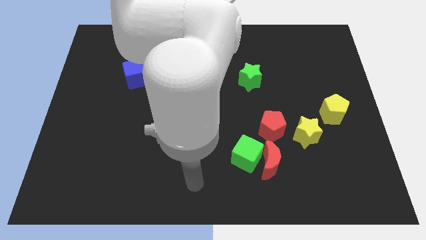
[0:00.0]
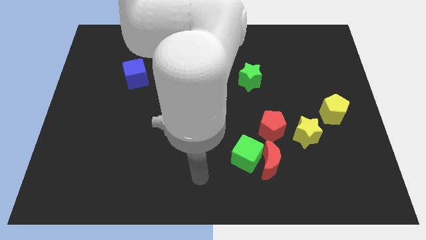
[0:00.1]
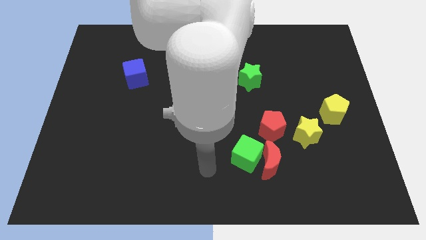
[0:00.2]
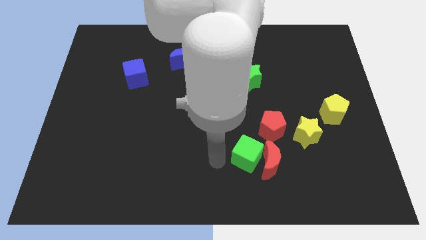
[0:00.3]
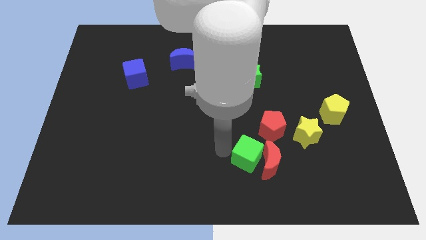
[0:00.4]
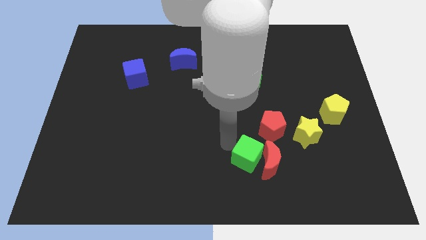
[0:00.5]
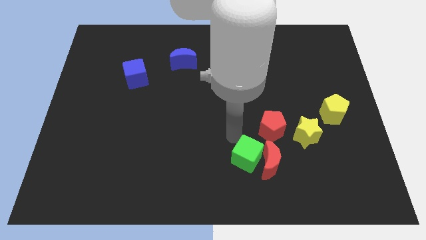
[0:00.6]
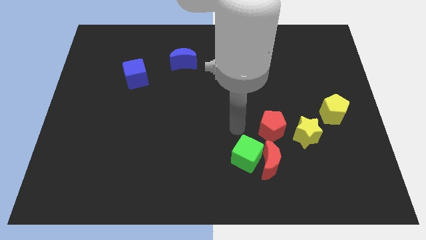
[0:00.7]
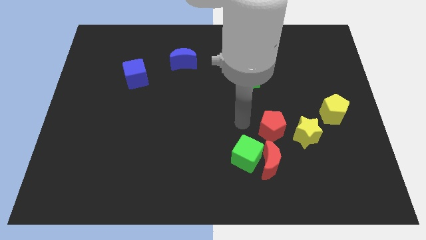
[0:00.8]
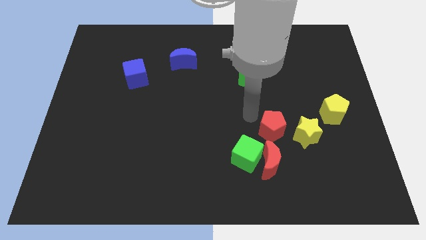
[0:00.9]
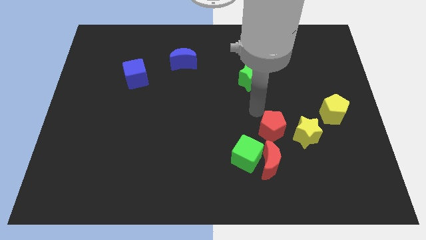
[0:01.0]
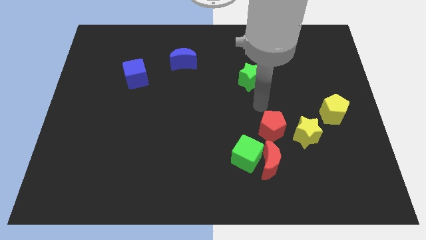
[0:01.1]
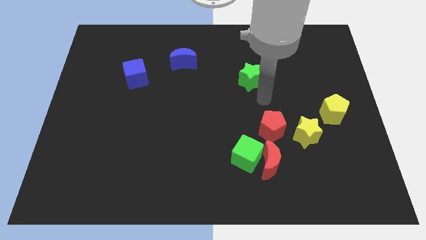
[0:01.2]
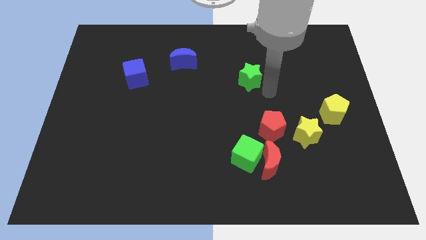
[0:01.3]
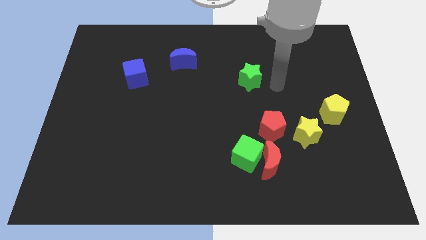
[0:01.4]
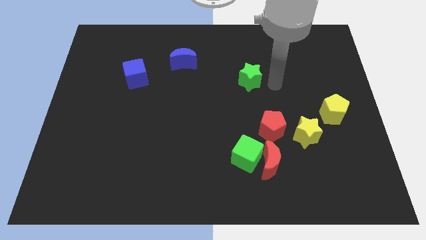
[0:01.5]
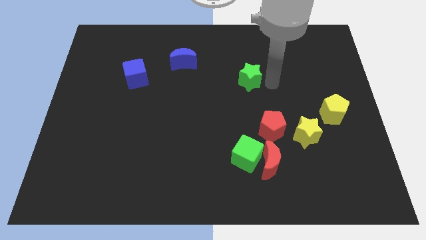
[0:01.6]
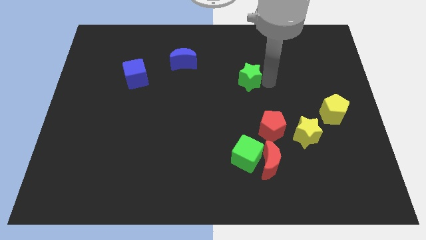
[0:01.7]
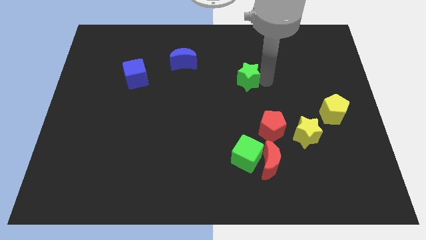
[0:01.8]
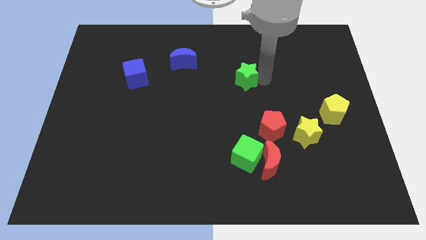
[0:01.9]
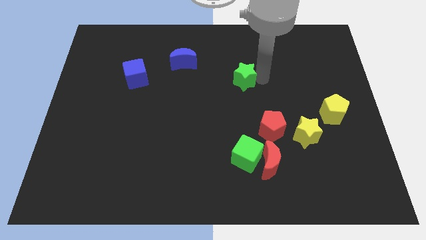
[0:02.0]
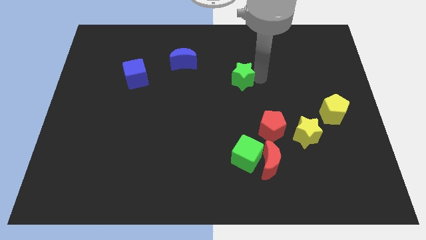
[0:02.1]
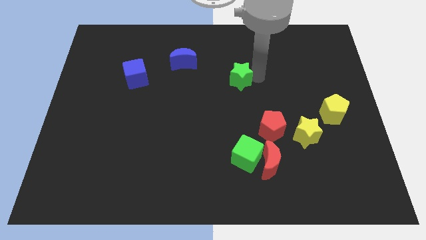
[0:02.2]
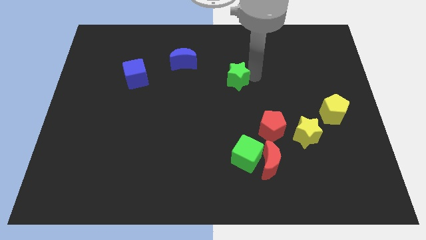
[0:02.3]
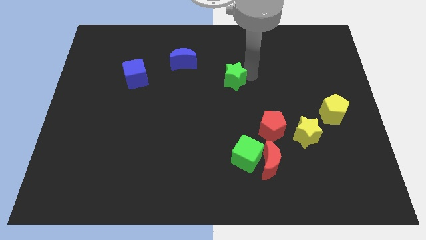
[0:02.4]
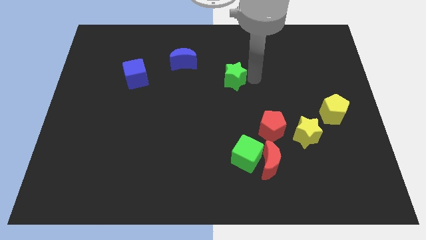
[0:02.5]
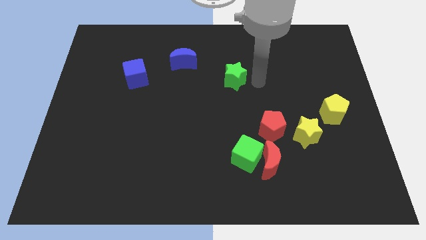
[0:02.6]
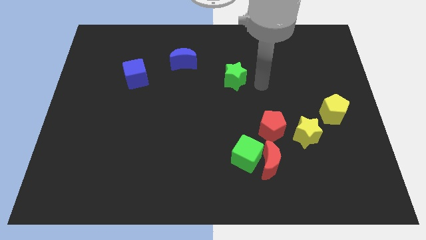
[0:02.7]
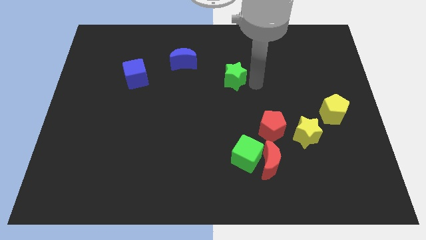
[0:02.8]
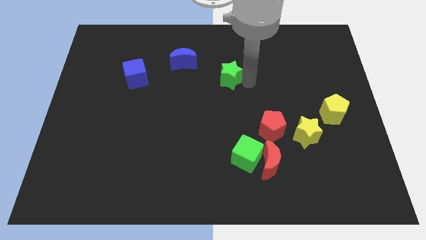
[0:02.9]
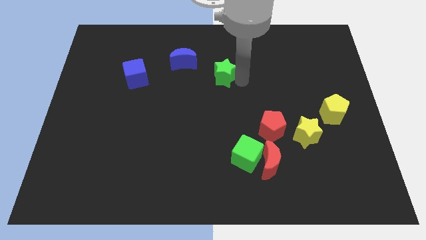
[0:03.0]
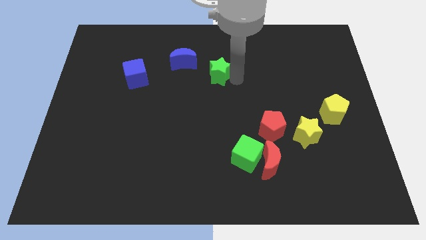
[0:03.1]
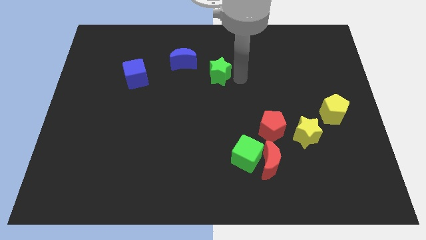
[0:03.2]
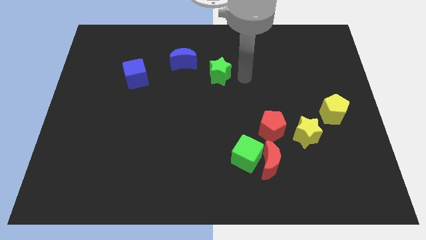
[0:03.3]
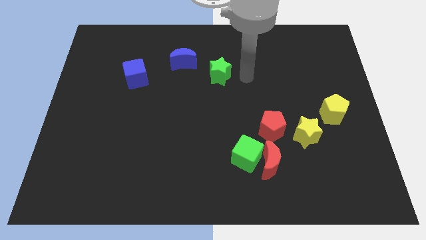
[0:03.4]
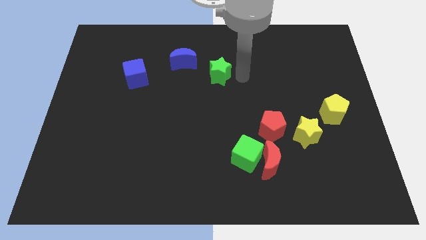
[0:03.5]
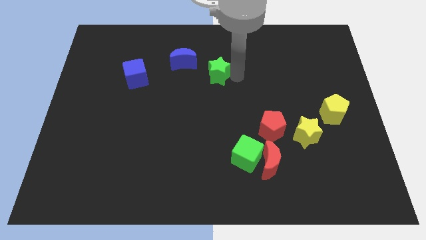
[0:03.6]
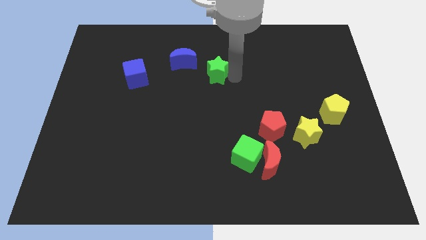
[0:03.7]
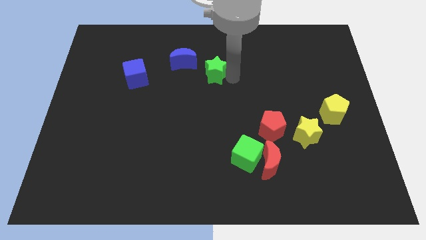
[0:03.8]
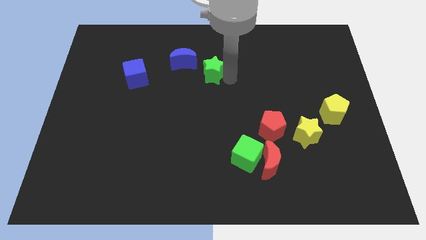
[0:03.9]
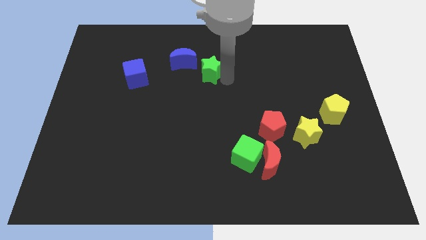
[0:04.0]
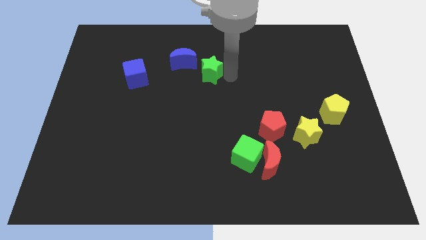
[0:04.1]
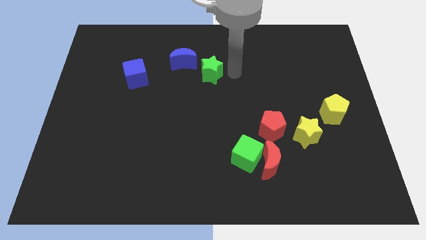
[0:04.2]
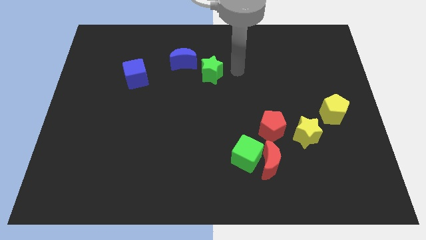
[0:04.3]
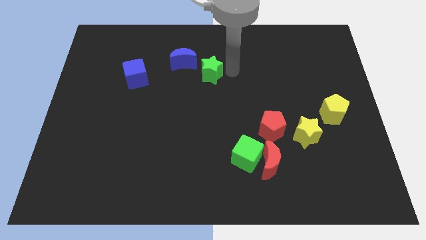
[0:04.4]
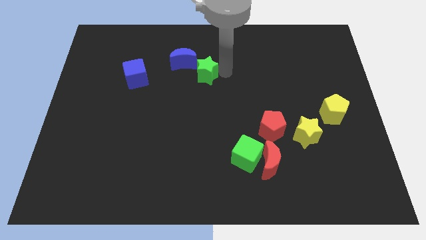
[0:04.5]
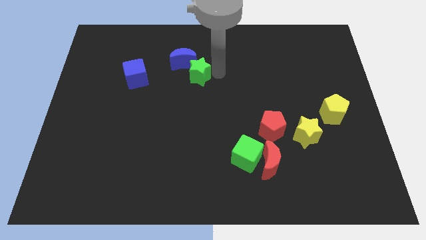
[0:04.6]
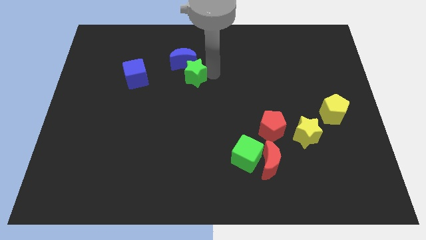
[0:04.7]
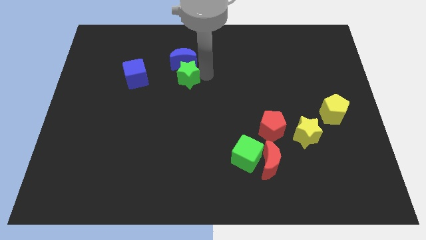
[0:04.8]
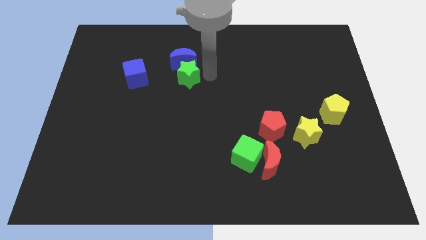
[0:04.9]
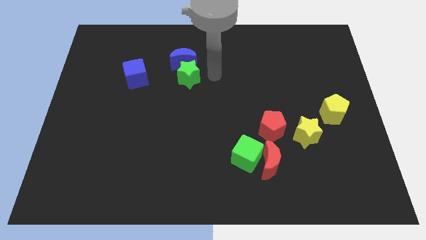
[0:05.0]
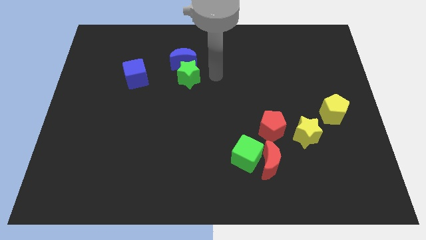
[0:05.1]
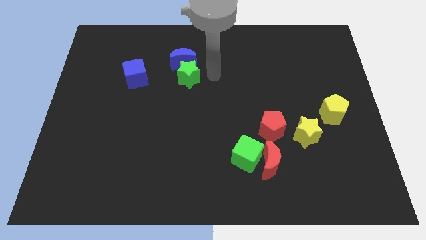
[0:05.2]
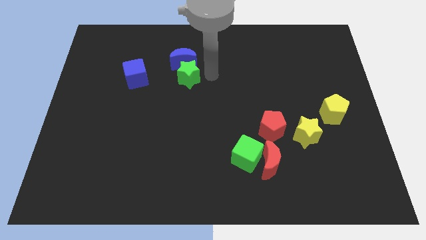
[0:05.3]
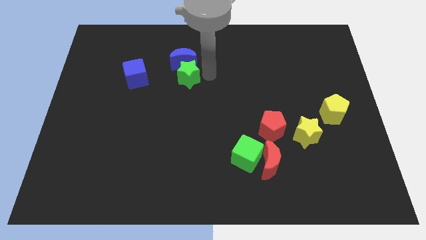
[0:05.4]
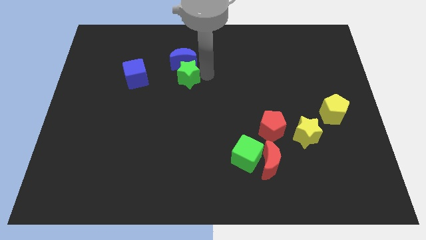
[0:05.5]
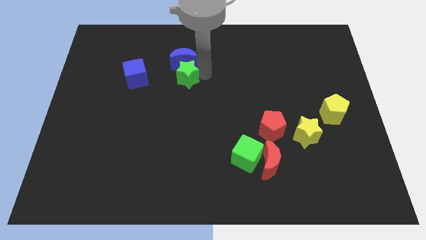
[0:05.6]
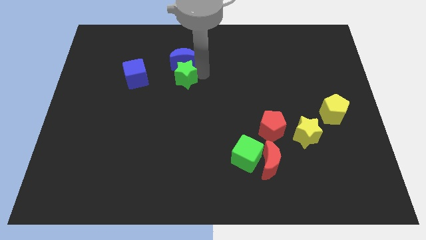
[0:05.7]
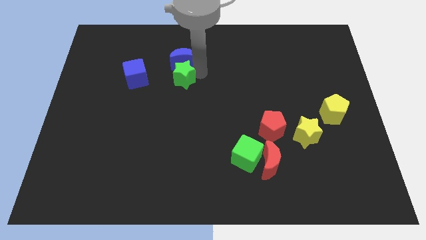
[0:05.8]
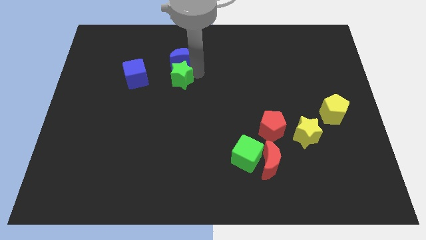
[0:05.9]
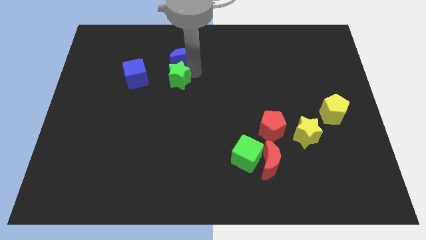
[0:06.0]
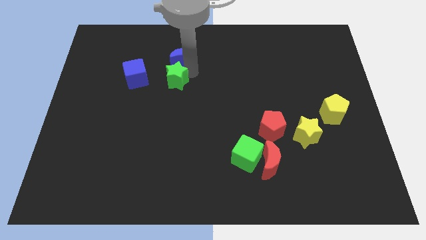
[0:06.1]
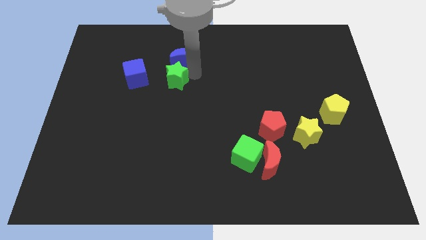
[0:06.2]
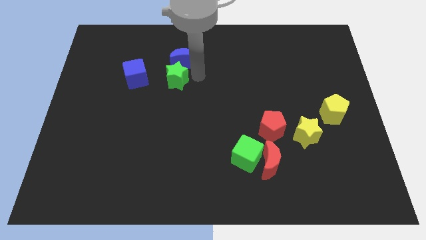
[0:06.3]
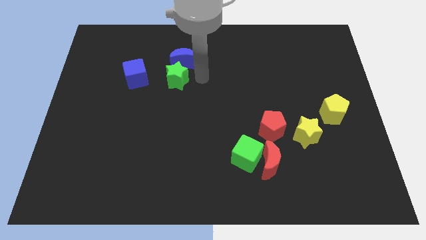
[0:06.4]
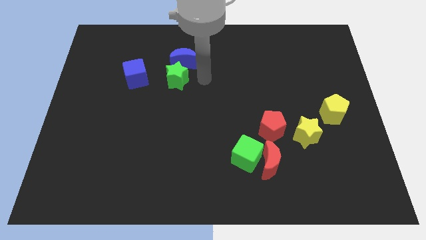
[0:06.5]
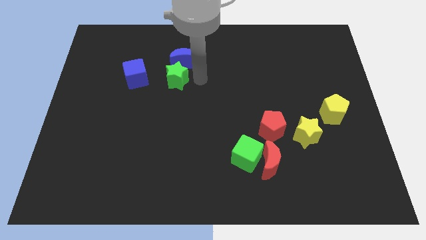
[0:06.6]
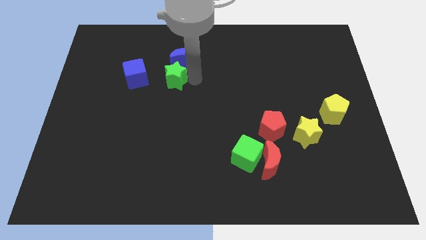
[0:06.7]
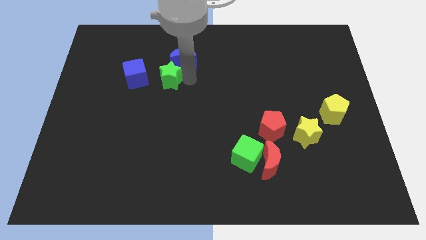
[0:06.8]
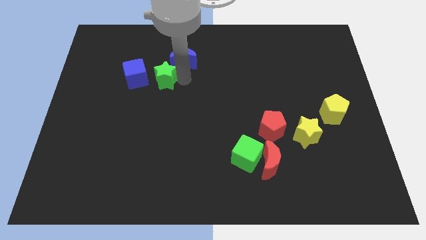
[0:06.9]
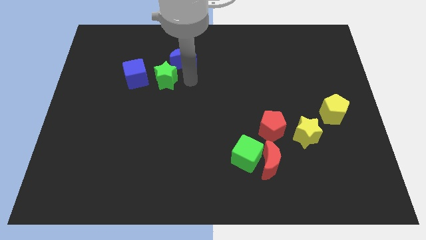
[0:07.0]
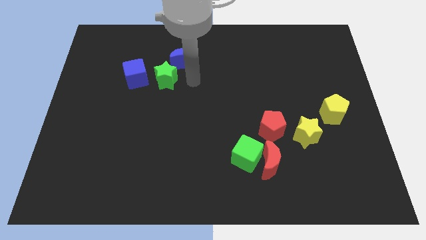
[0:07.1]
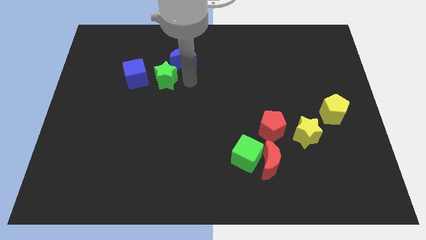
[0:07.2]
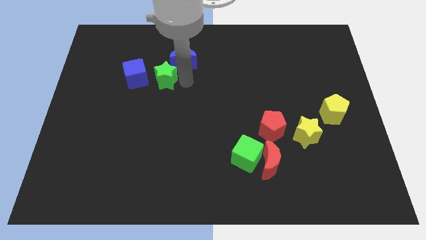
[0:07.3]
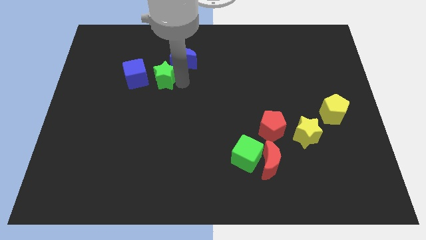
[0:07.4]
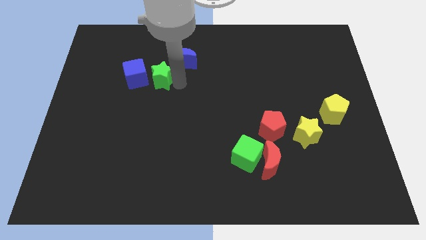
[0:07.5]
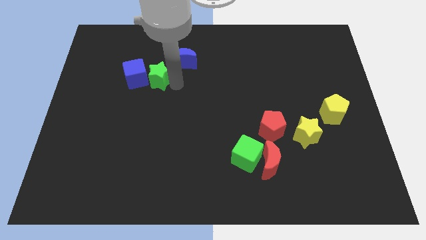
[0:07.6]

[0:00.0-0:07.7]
slide the green star towards the blue cube
